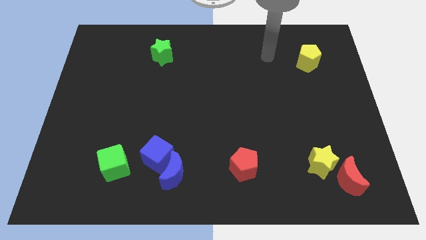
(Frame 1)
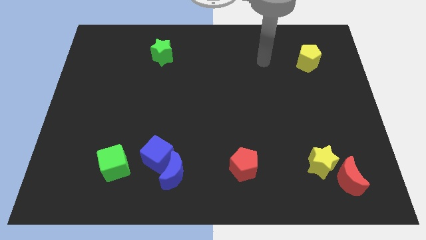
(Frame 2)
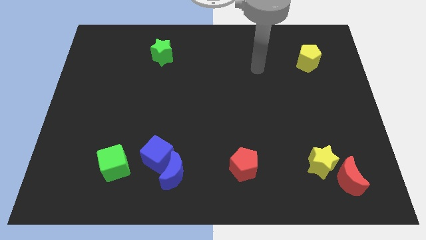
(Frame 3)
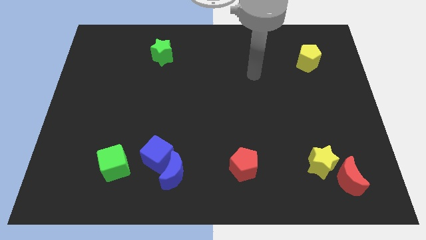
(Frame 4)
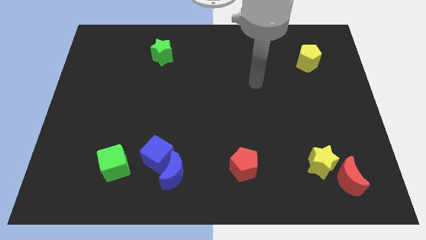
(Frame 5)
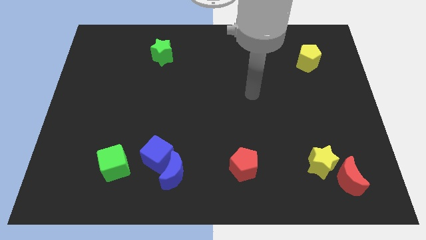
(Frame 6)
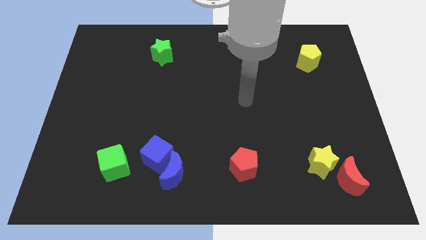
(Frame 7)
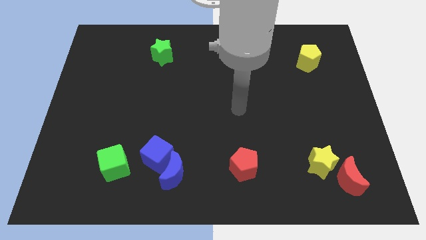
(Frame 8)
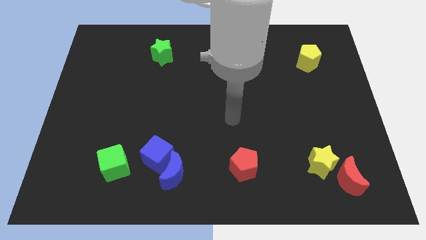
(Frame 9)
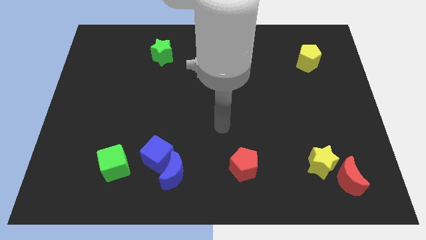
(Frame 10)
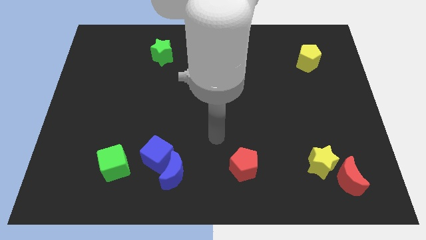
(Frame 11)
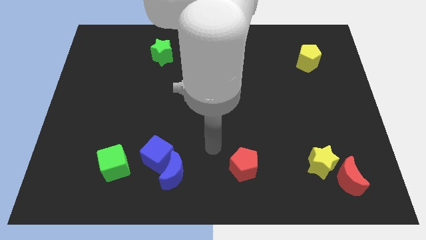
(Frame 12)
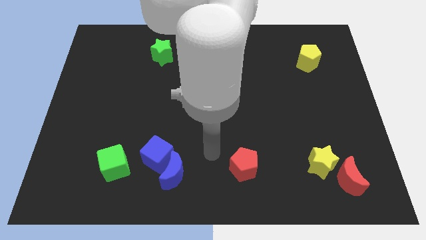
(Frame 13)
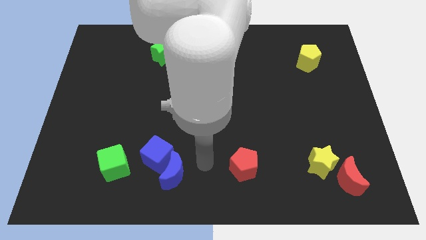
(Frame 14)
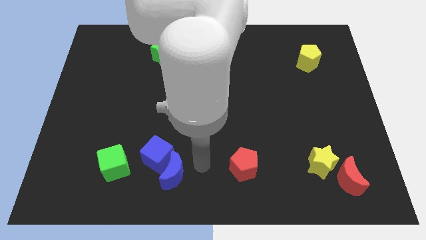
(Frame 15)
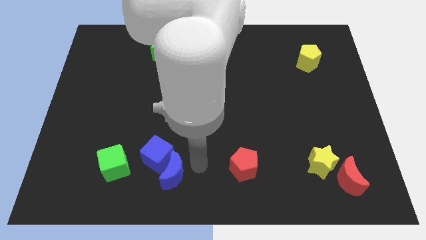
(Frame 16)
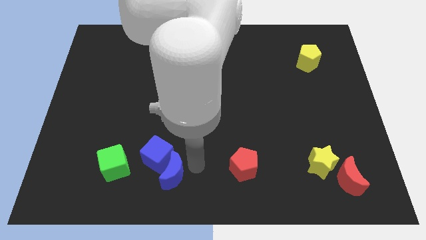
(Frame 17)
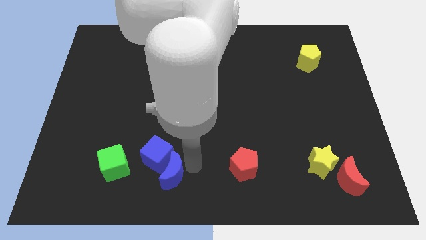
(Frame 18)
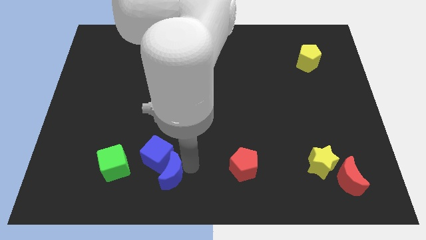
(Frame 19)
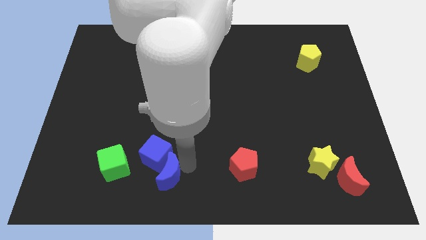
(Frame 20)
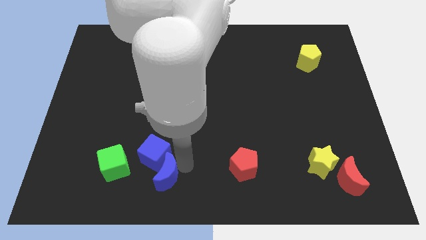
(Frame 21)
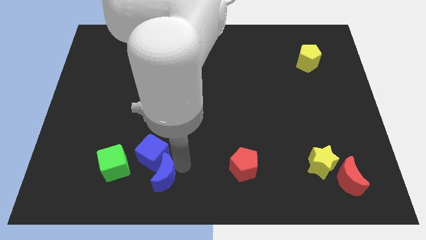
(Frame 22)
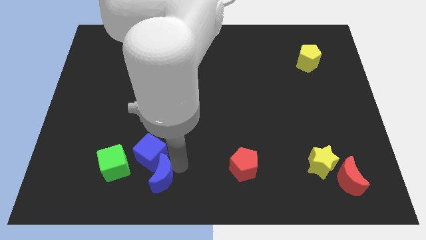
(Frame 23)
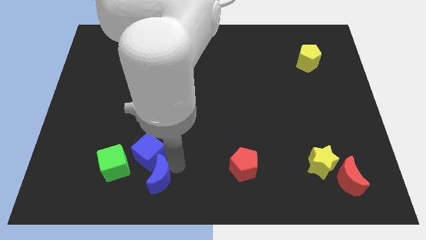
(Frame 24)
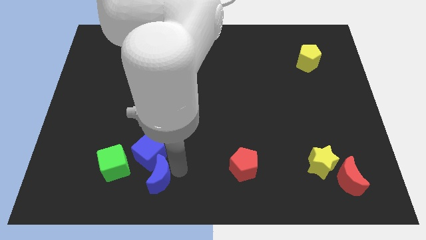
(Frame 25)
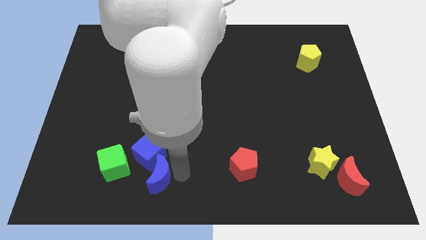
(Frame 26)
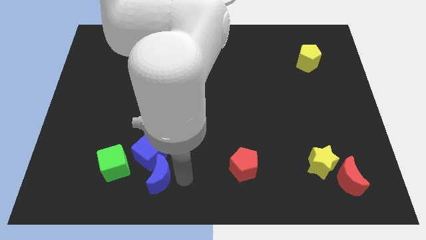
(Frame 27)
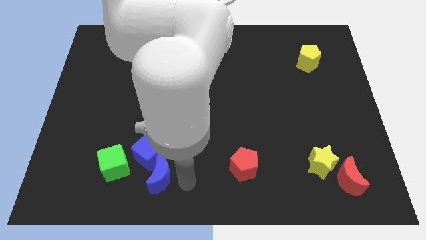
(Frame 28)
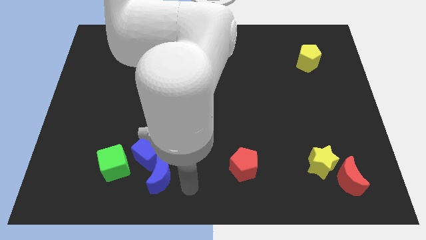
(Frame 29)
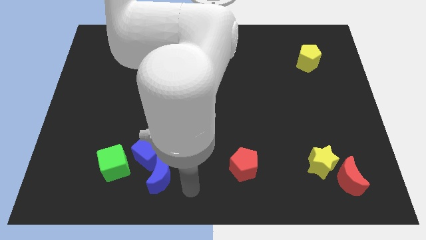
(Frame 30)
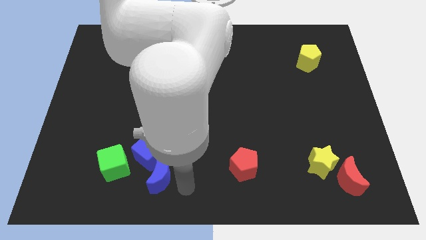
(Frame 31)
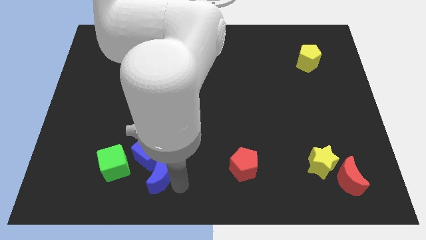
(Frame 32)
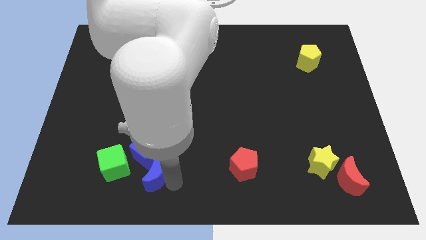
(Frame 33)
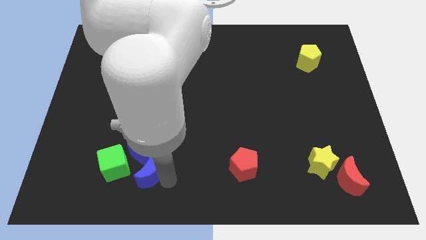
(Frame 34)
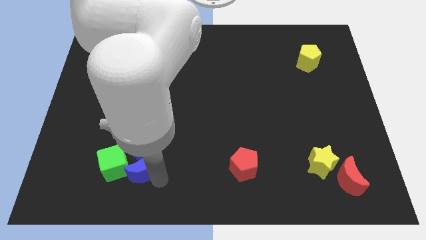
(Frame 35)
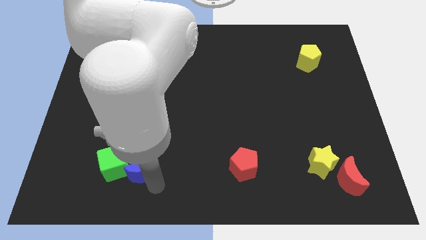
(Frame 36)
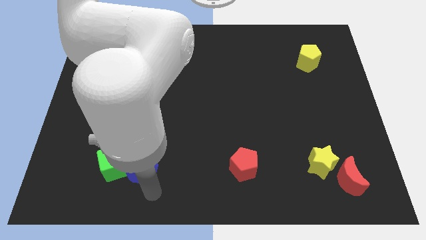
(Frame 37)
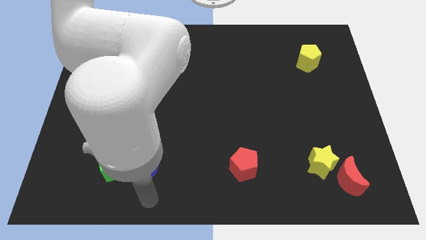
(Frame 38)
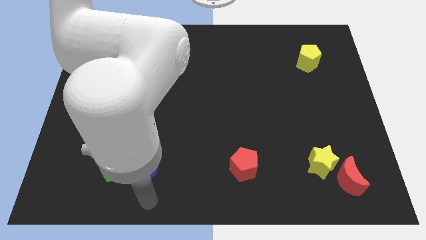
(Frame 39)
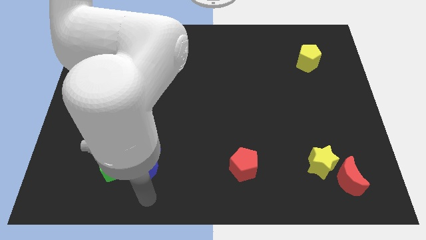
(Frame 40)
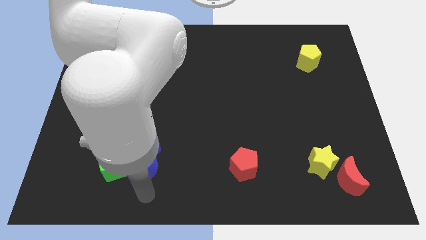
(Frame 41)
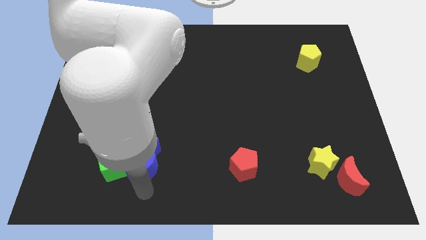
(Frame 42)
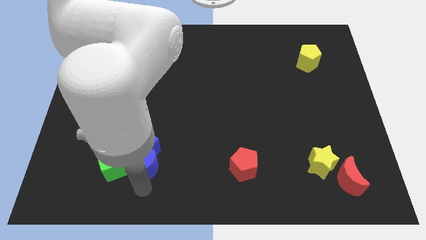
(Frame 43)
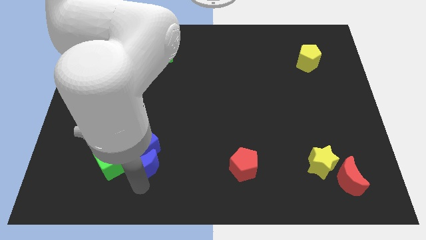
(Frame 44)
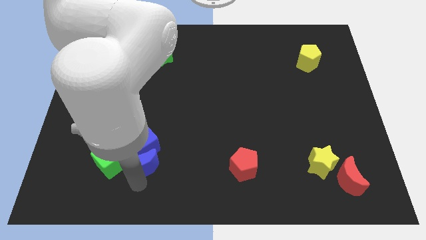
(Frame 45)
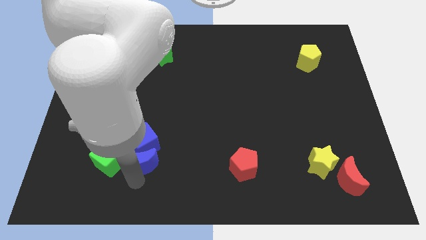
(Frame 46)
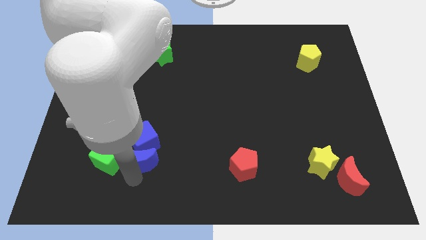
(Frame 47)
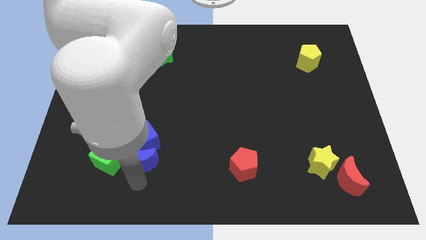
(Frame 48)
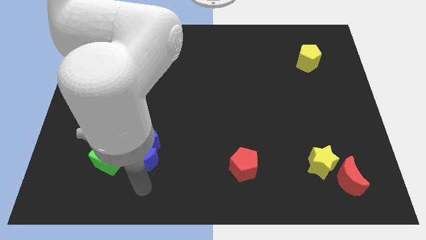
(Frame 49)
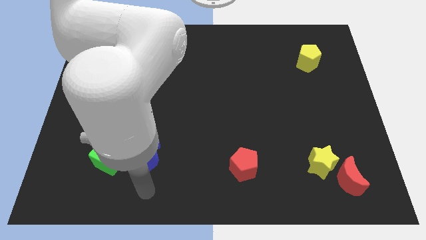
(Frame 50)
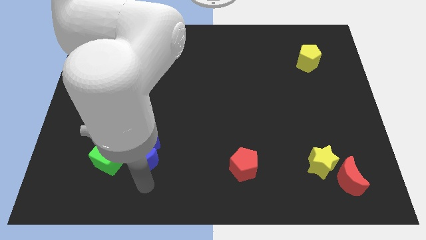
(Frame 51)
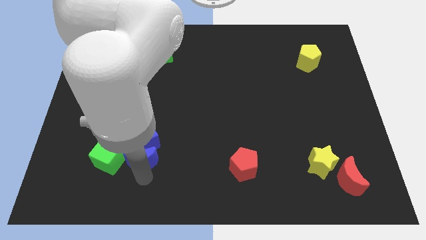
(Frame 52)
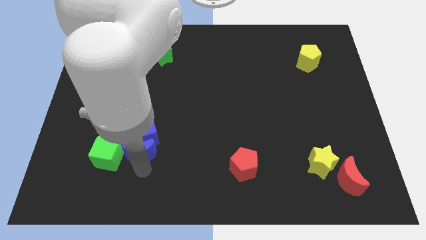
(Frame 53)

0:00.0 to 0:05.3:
push the blue moon to the top right of the green cube

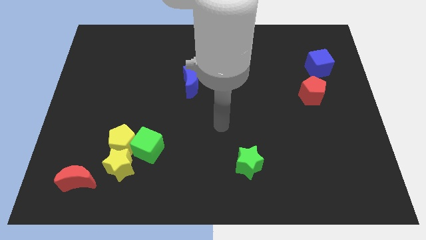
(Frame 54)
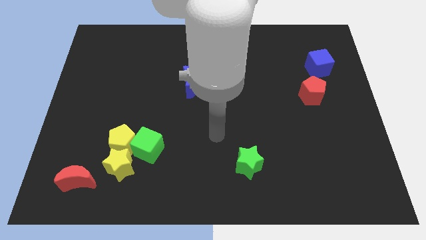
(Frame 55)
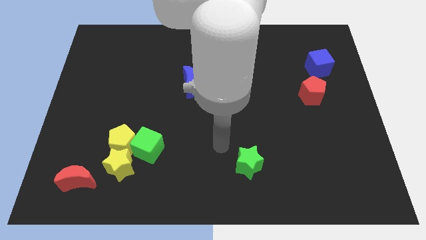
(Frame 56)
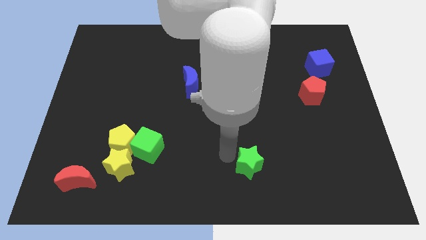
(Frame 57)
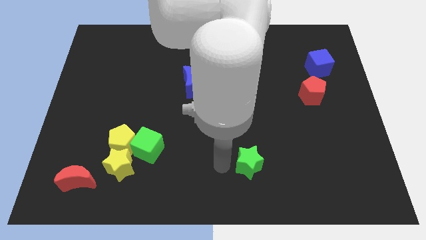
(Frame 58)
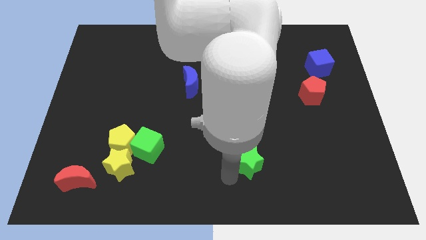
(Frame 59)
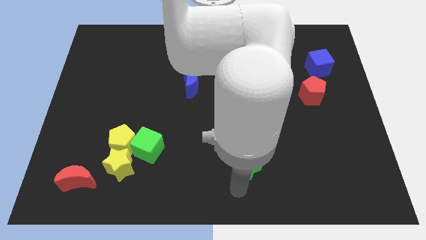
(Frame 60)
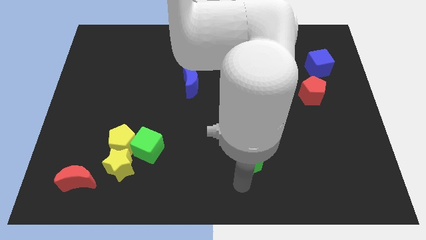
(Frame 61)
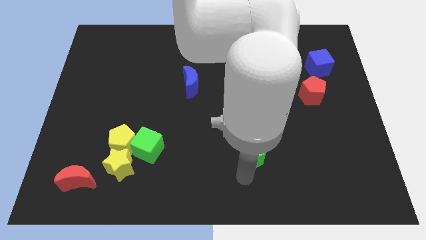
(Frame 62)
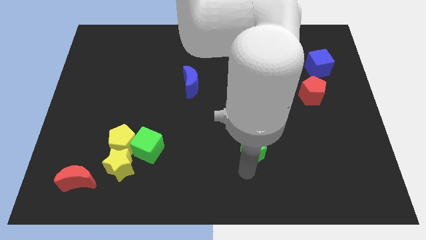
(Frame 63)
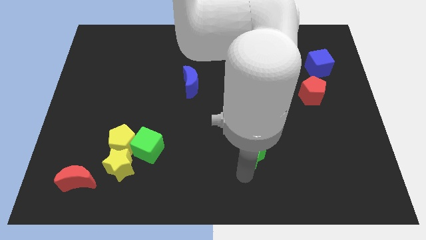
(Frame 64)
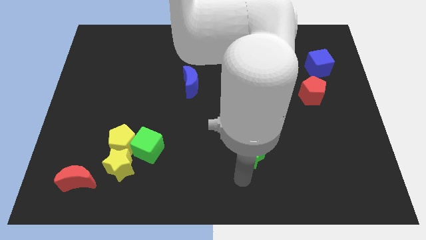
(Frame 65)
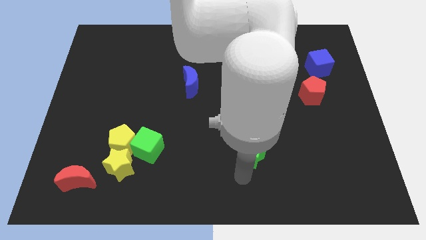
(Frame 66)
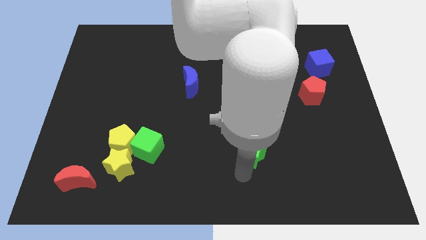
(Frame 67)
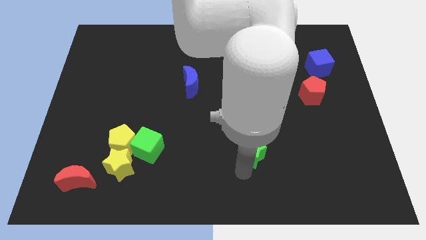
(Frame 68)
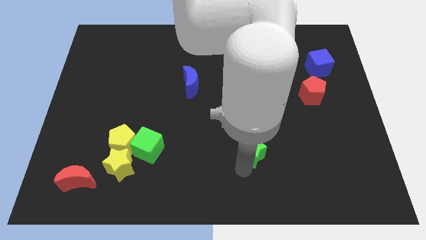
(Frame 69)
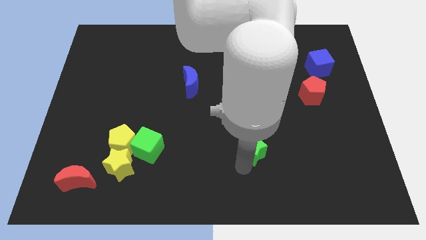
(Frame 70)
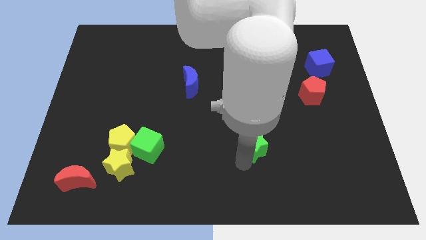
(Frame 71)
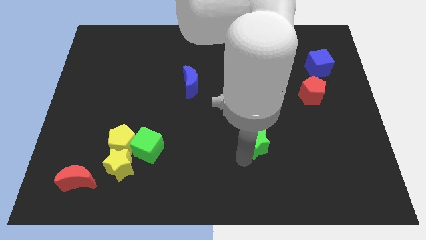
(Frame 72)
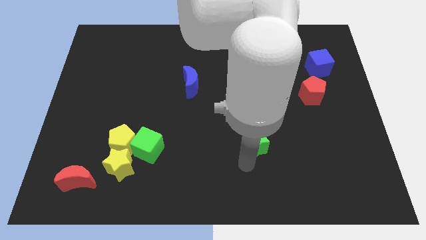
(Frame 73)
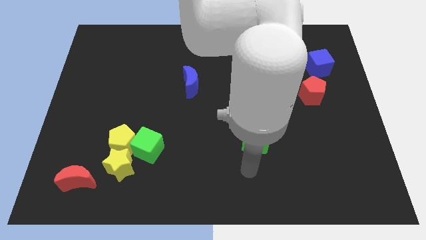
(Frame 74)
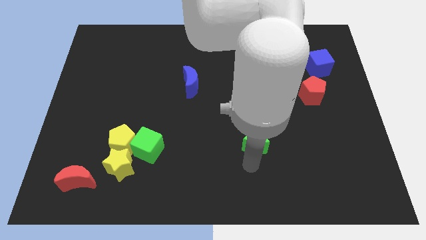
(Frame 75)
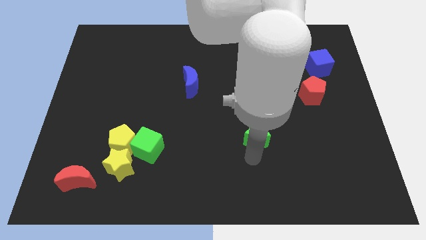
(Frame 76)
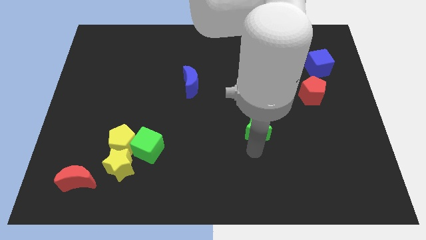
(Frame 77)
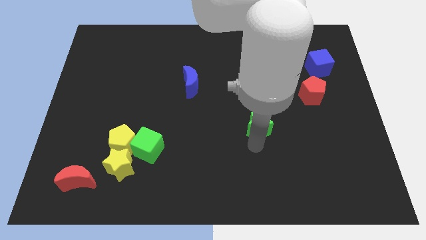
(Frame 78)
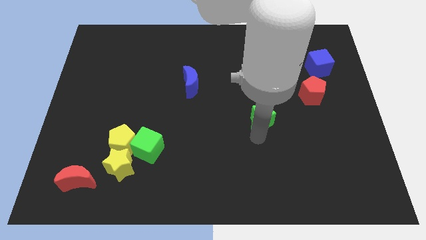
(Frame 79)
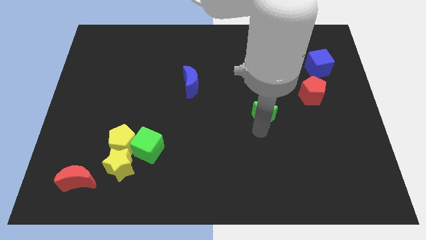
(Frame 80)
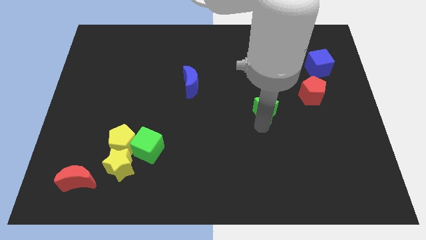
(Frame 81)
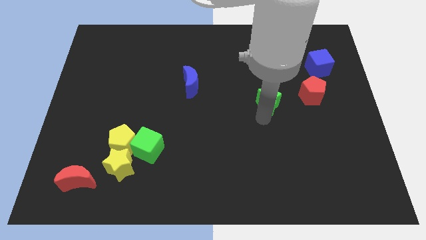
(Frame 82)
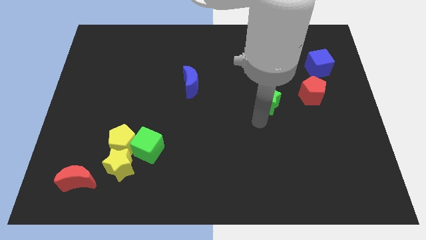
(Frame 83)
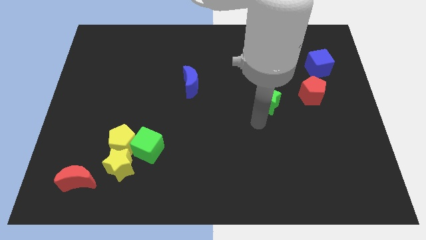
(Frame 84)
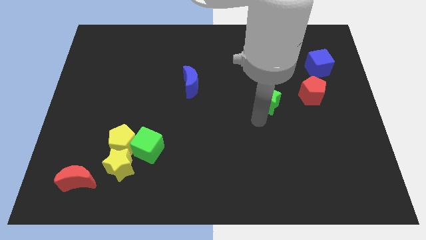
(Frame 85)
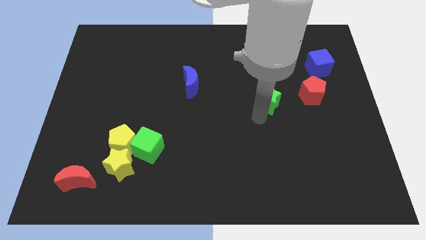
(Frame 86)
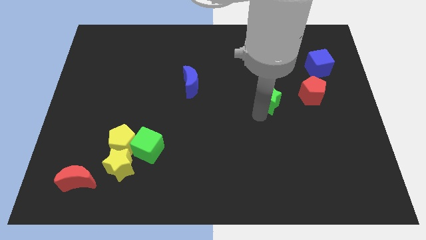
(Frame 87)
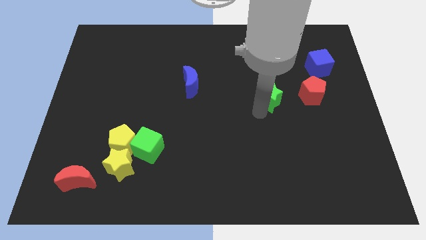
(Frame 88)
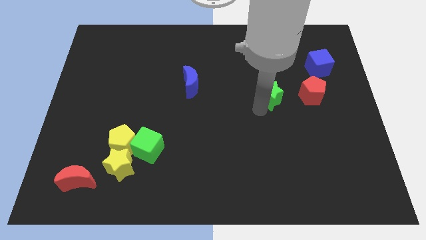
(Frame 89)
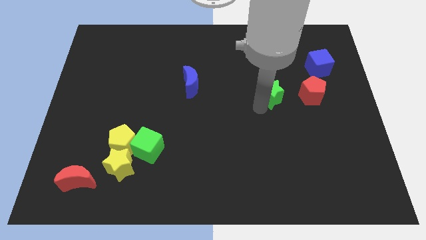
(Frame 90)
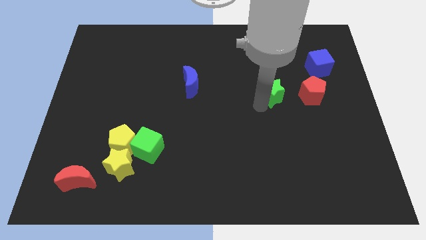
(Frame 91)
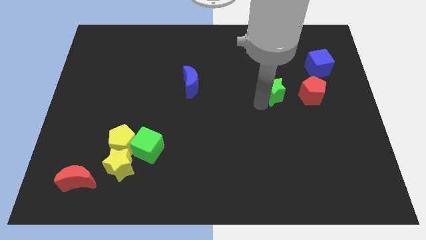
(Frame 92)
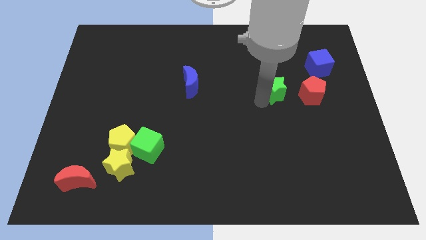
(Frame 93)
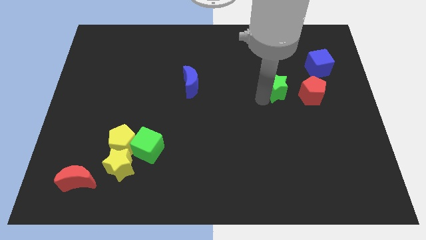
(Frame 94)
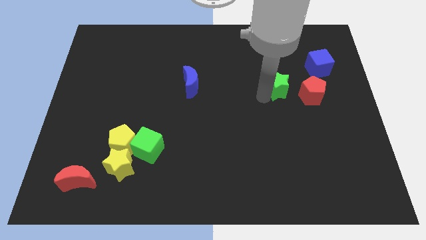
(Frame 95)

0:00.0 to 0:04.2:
put the green star to the top left of the red pentagon
